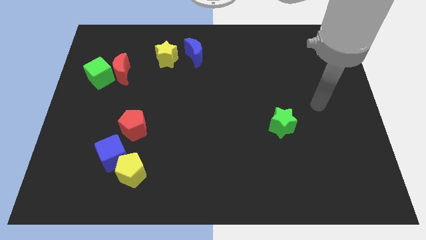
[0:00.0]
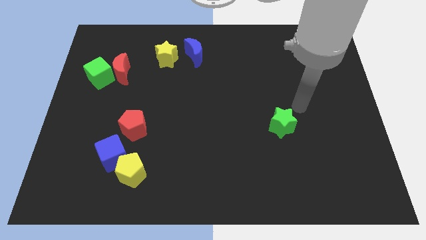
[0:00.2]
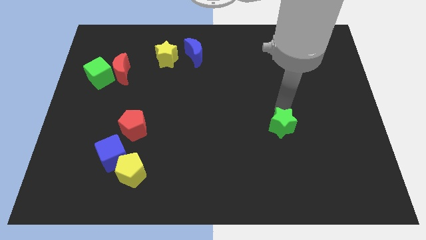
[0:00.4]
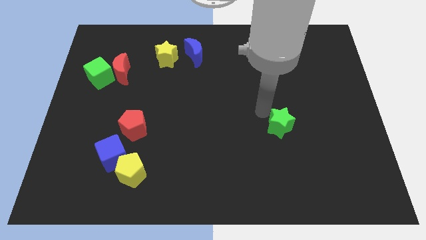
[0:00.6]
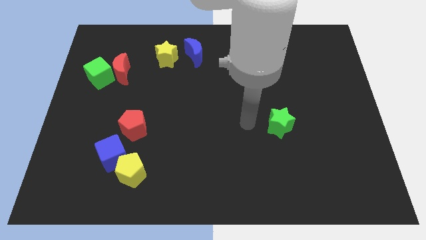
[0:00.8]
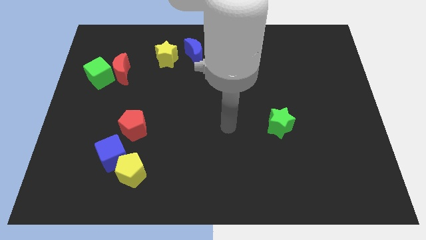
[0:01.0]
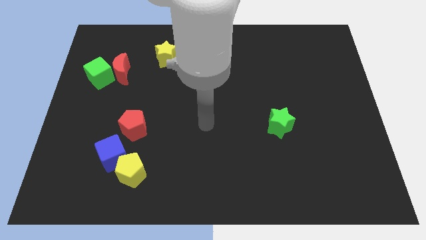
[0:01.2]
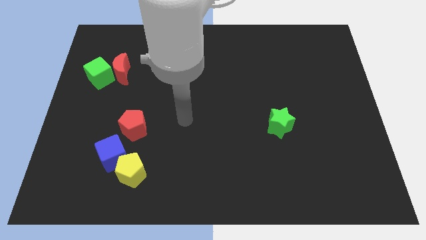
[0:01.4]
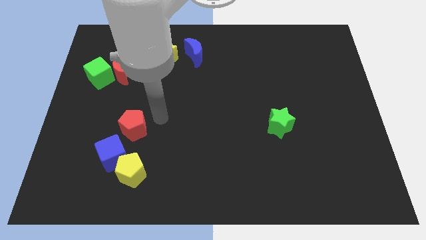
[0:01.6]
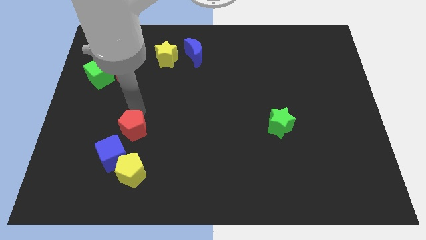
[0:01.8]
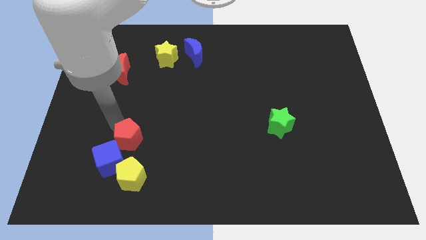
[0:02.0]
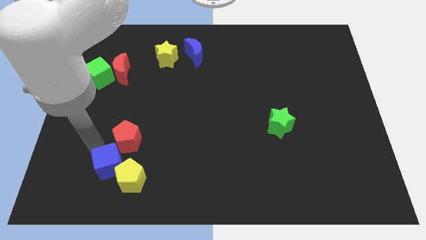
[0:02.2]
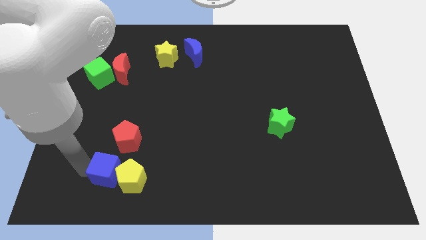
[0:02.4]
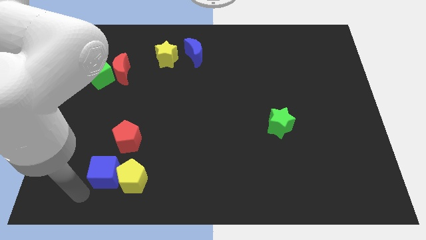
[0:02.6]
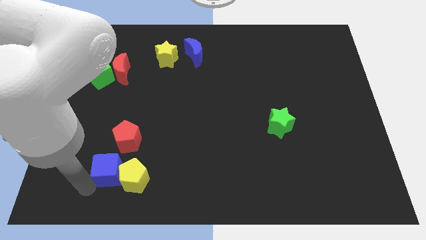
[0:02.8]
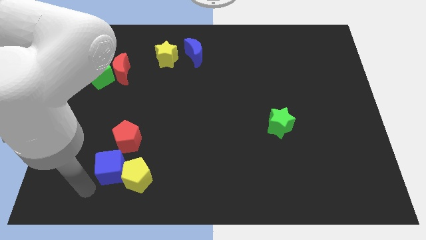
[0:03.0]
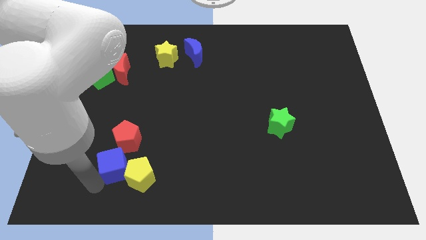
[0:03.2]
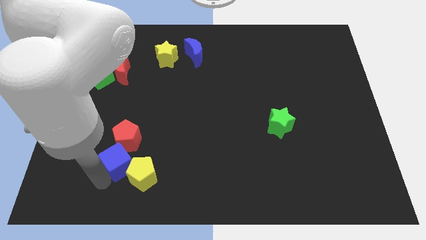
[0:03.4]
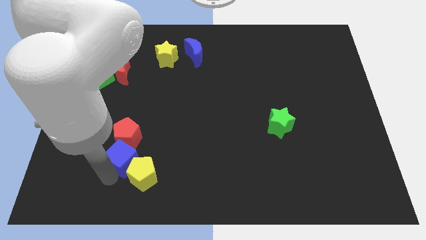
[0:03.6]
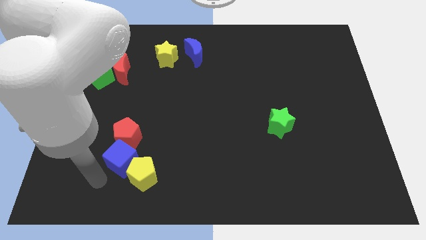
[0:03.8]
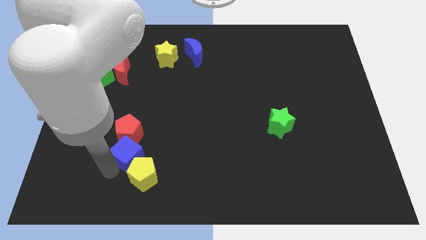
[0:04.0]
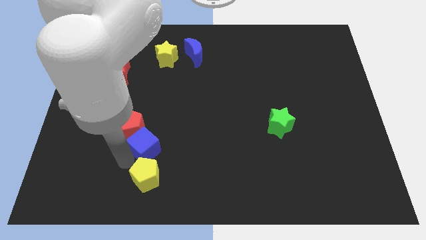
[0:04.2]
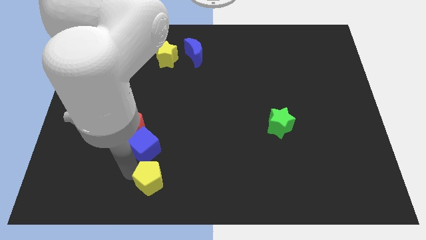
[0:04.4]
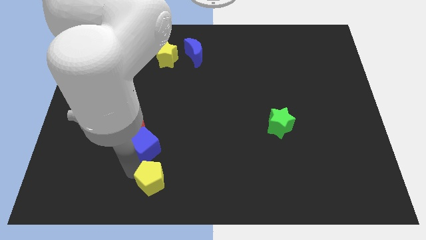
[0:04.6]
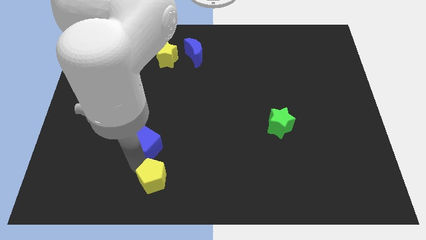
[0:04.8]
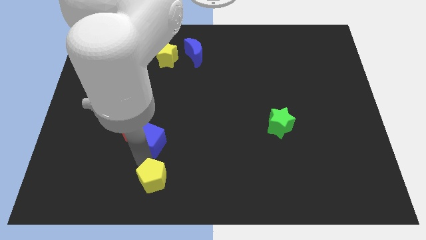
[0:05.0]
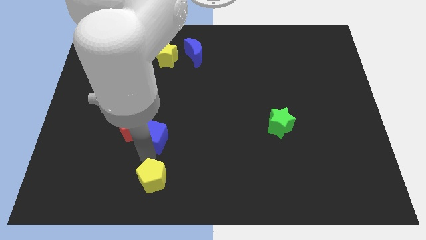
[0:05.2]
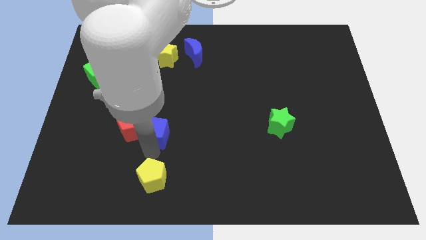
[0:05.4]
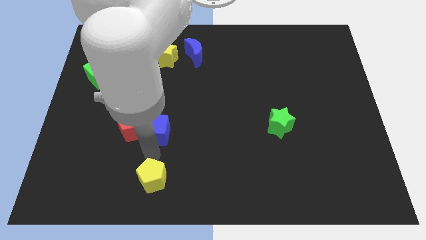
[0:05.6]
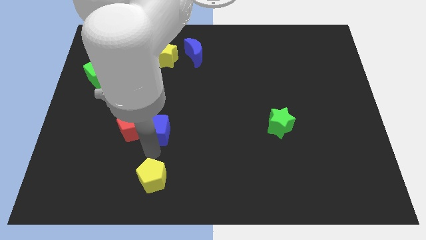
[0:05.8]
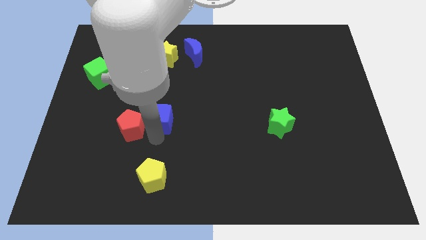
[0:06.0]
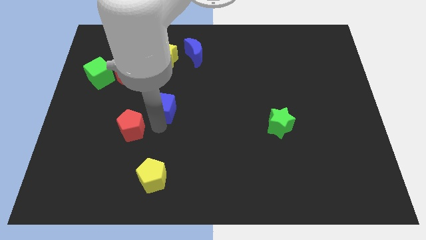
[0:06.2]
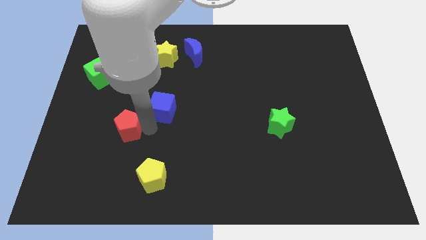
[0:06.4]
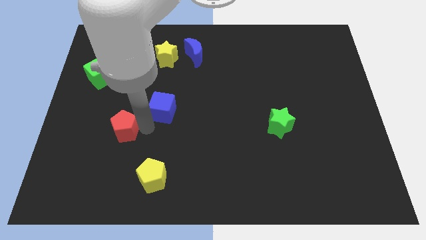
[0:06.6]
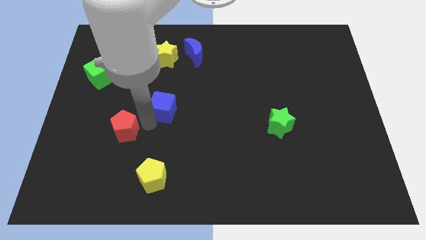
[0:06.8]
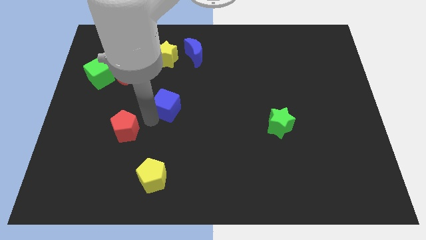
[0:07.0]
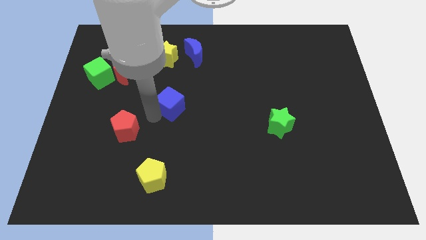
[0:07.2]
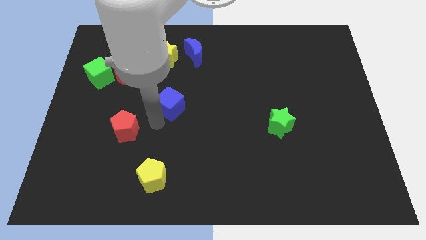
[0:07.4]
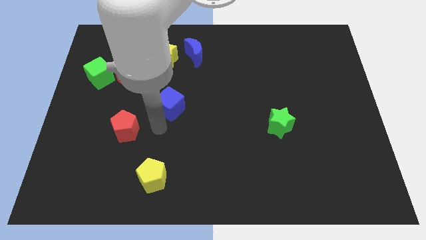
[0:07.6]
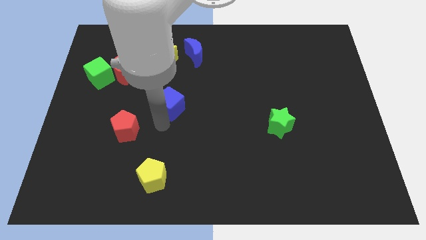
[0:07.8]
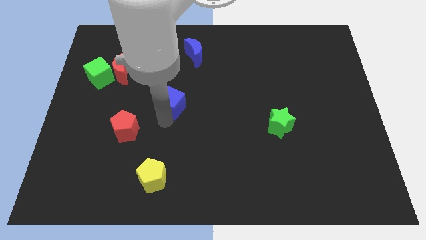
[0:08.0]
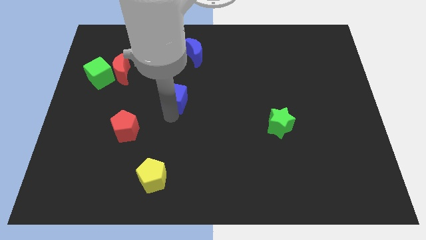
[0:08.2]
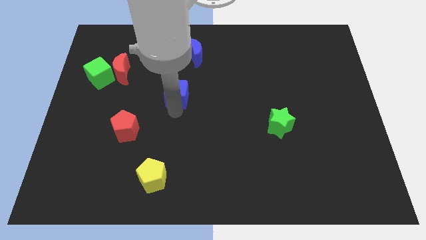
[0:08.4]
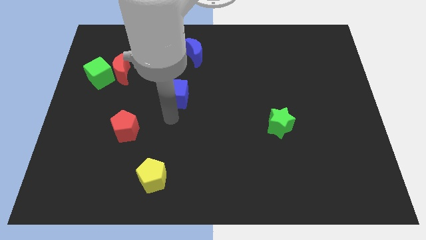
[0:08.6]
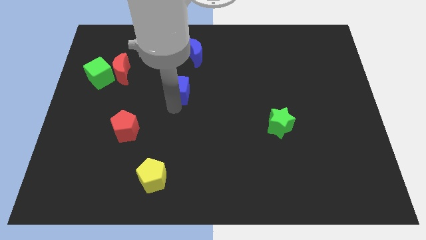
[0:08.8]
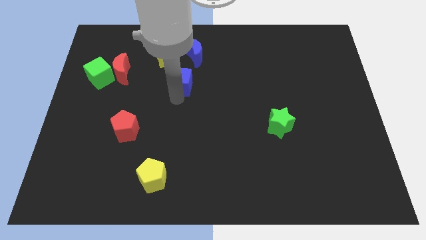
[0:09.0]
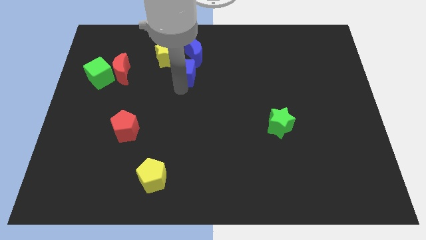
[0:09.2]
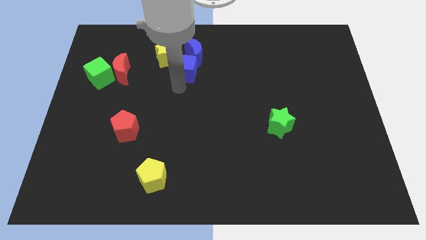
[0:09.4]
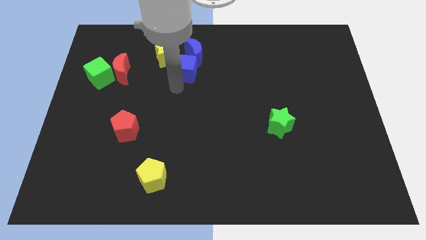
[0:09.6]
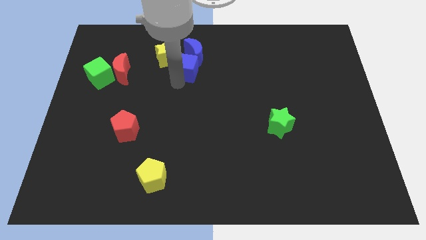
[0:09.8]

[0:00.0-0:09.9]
push the blue cube close to the blue moon

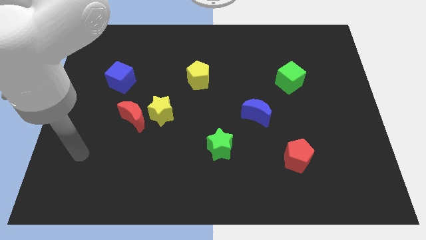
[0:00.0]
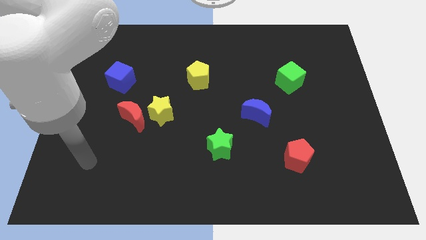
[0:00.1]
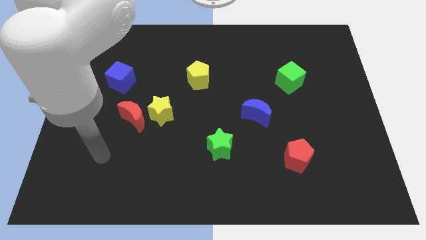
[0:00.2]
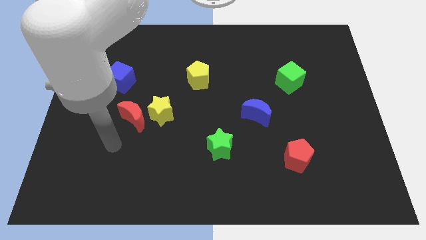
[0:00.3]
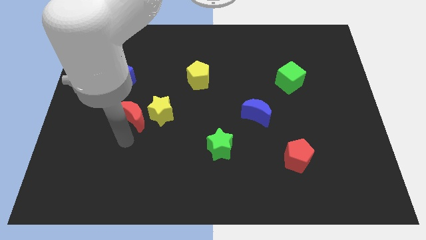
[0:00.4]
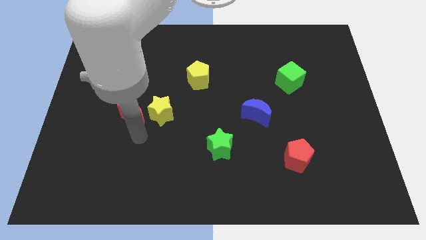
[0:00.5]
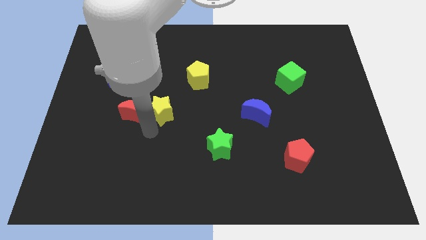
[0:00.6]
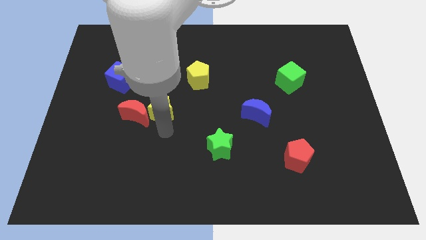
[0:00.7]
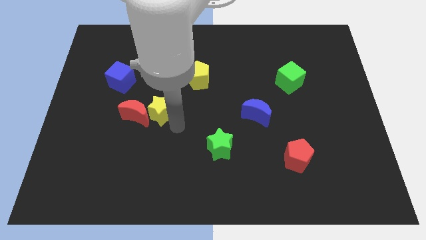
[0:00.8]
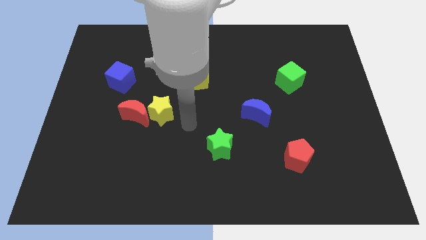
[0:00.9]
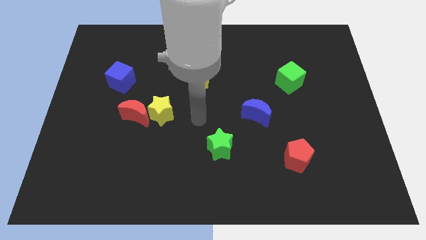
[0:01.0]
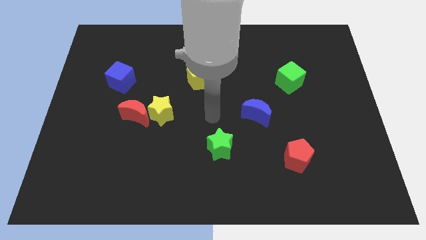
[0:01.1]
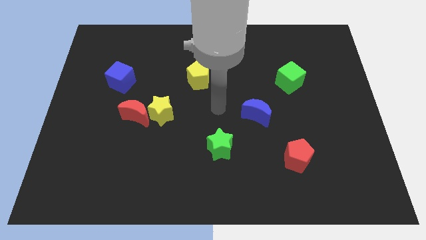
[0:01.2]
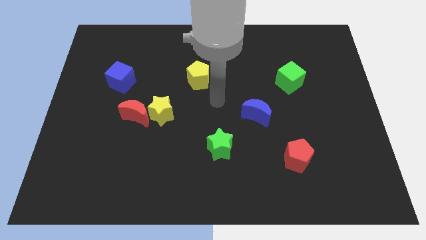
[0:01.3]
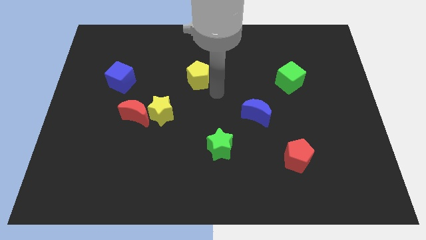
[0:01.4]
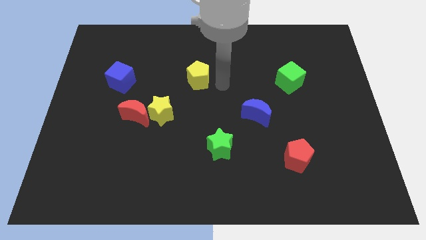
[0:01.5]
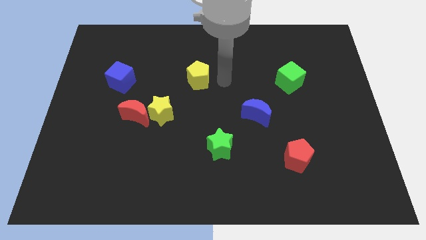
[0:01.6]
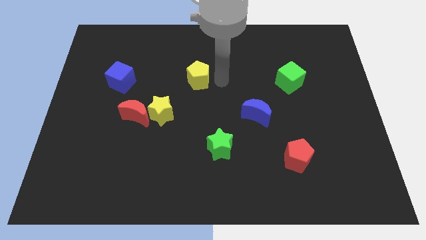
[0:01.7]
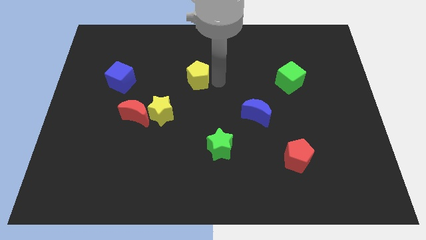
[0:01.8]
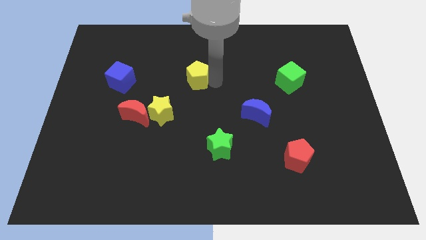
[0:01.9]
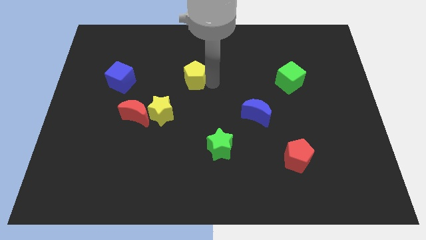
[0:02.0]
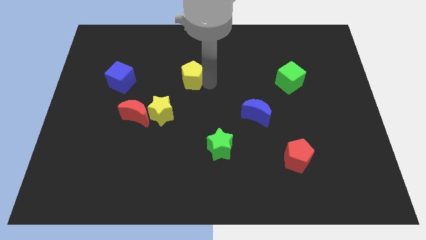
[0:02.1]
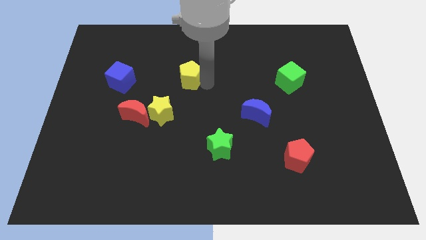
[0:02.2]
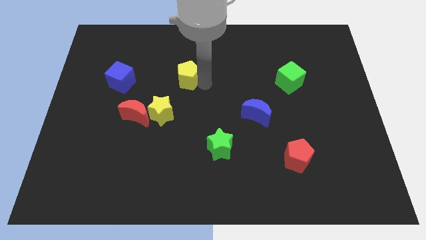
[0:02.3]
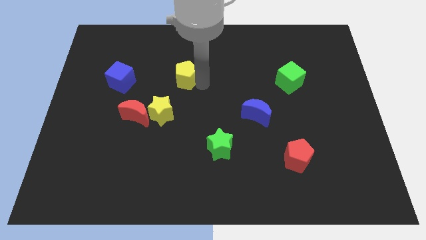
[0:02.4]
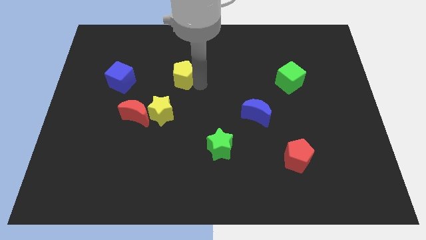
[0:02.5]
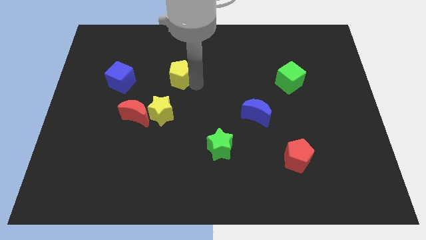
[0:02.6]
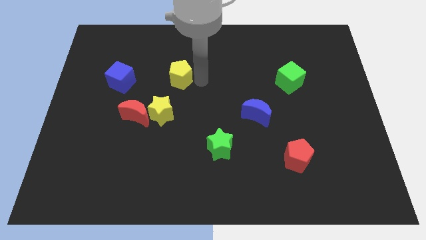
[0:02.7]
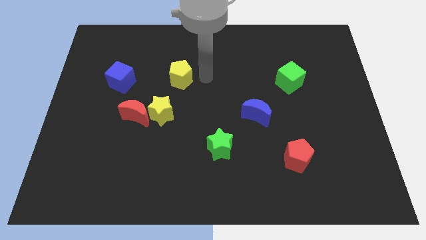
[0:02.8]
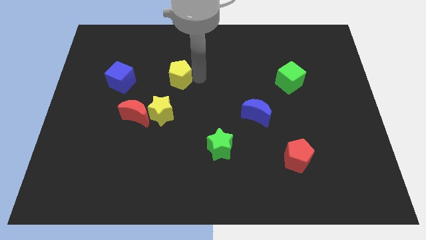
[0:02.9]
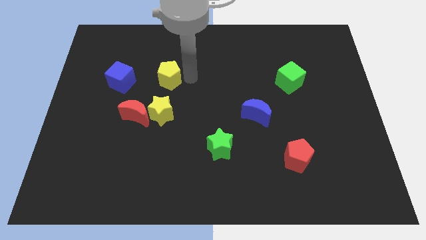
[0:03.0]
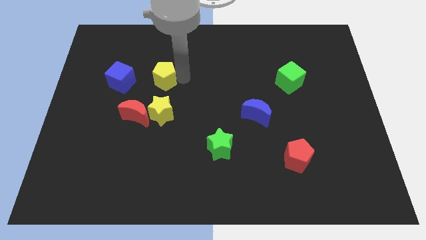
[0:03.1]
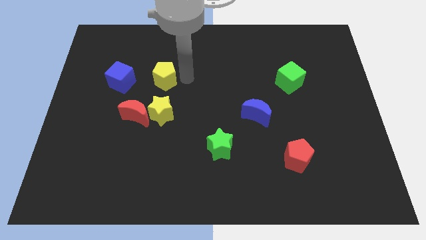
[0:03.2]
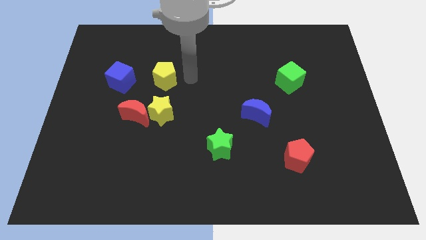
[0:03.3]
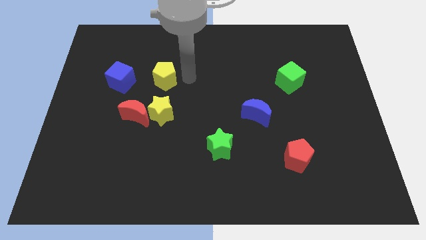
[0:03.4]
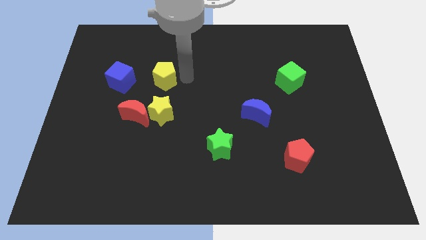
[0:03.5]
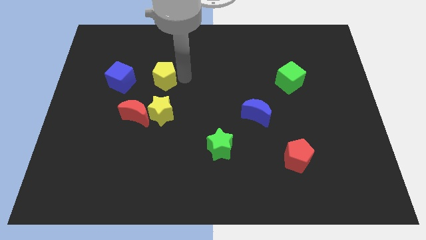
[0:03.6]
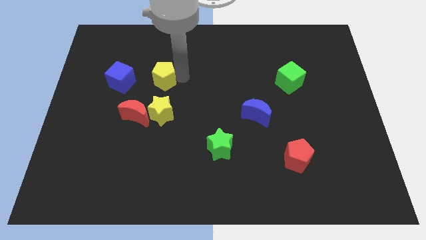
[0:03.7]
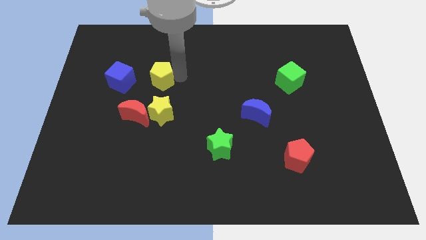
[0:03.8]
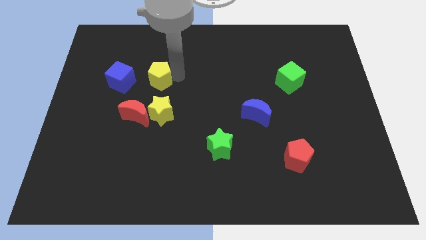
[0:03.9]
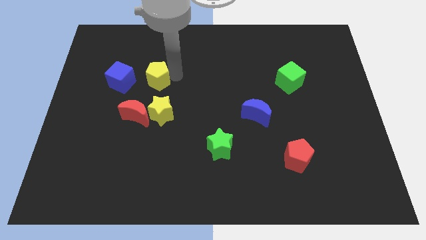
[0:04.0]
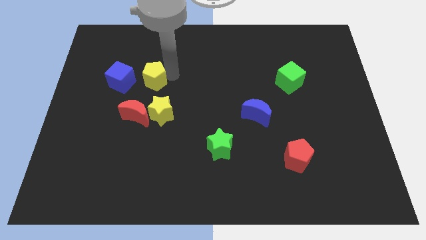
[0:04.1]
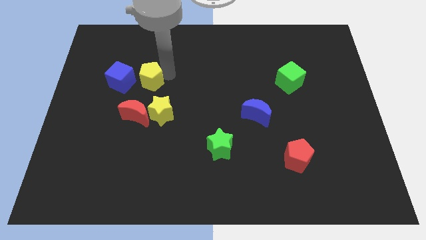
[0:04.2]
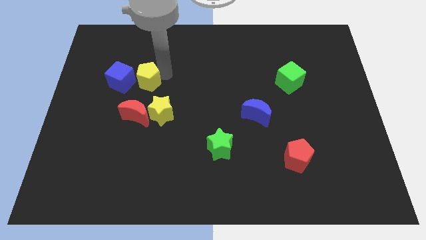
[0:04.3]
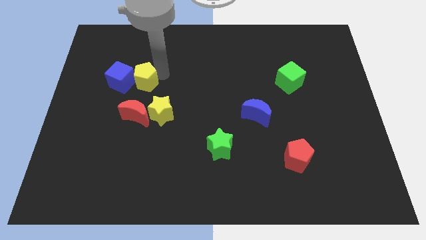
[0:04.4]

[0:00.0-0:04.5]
push the yellow pentagon to the blue cube
